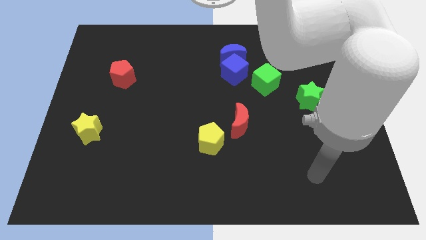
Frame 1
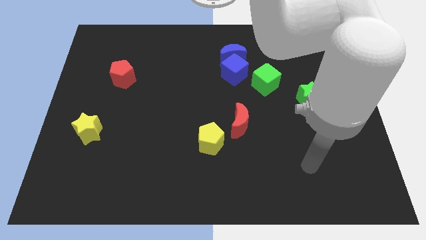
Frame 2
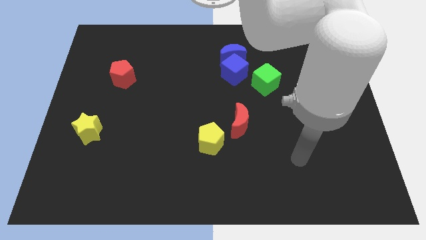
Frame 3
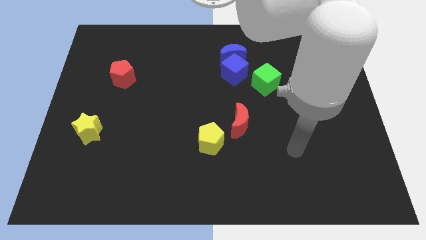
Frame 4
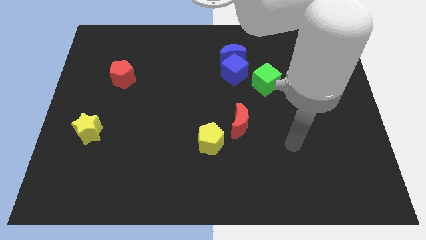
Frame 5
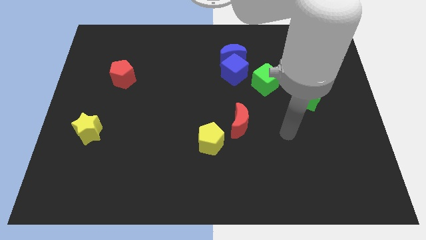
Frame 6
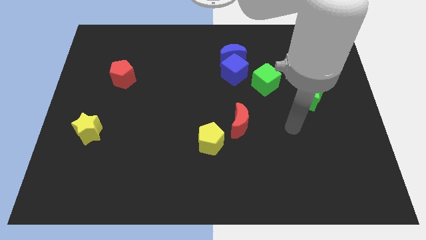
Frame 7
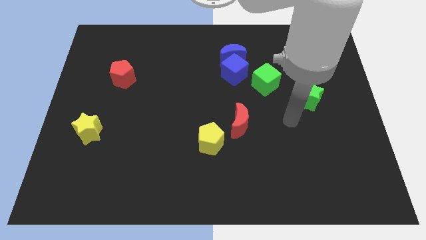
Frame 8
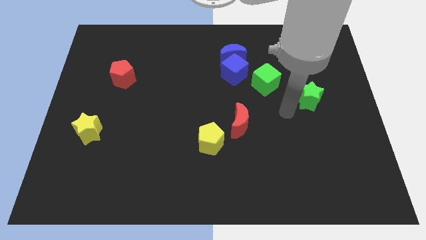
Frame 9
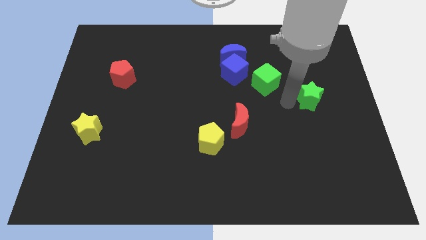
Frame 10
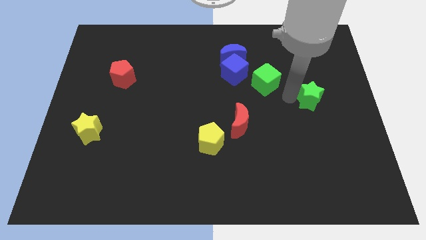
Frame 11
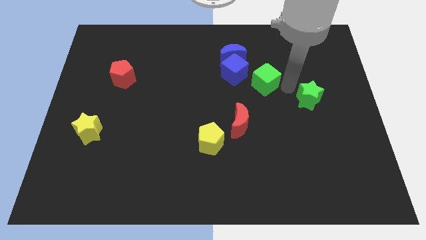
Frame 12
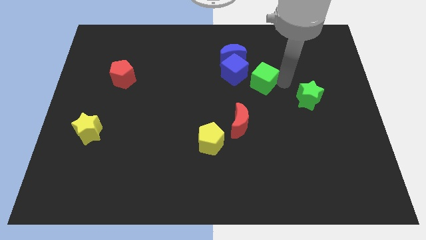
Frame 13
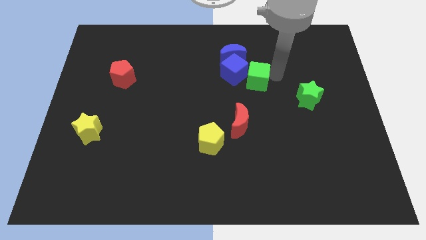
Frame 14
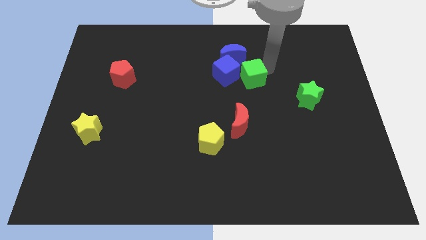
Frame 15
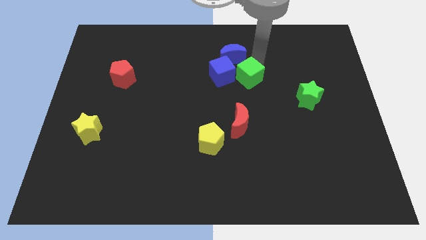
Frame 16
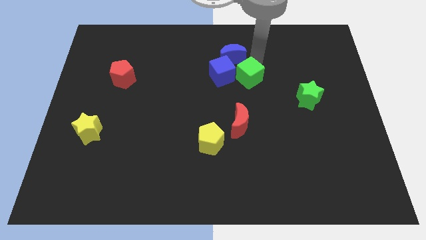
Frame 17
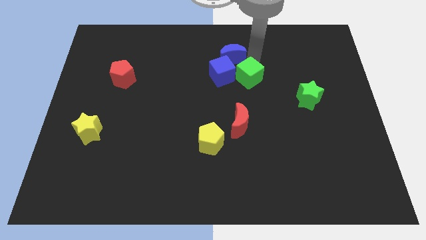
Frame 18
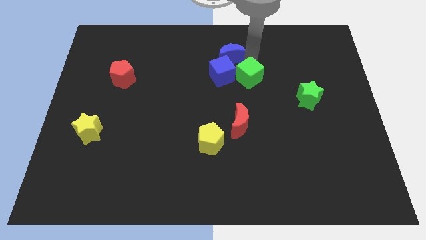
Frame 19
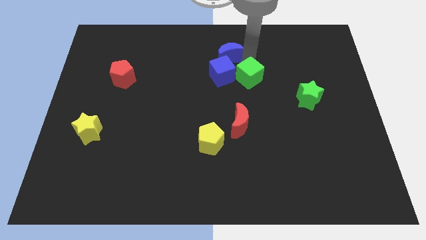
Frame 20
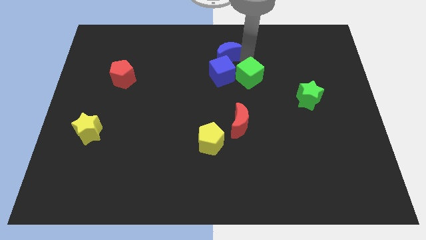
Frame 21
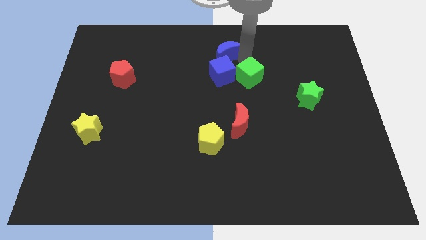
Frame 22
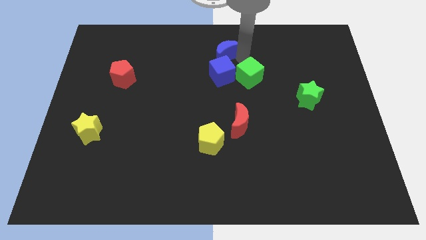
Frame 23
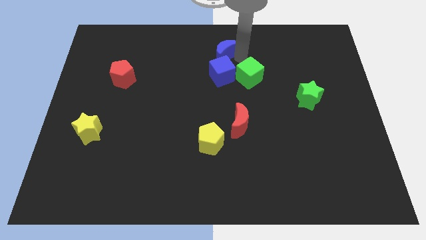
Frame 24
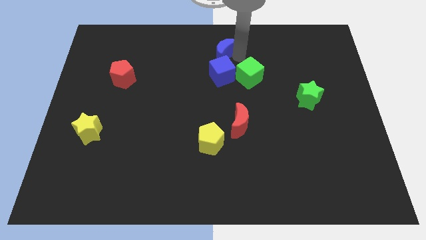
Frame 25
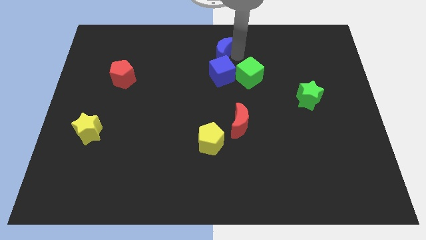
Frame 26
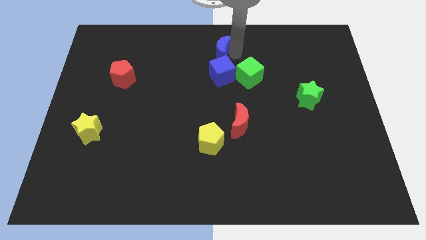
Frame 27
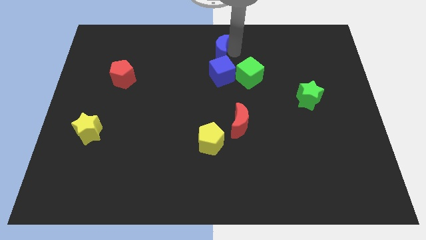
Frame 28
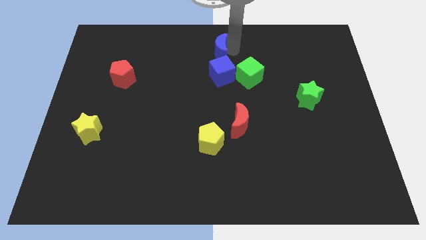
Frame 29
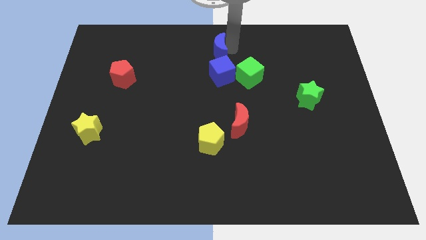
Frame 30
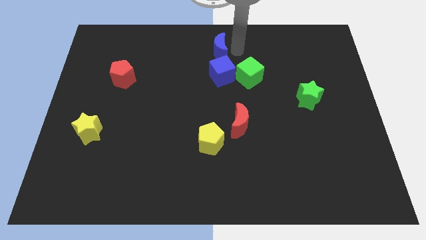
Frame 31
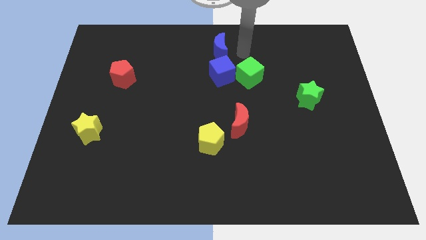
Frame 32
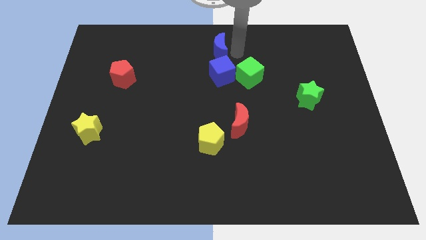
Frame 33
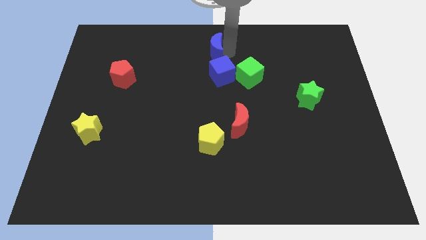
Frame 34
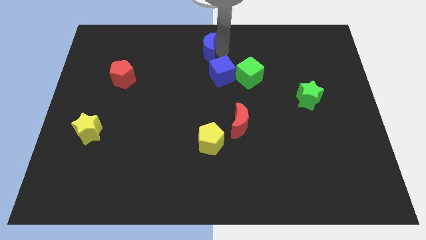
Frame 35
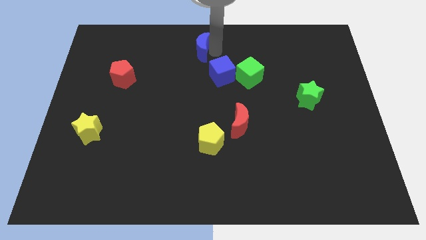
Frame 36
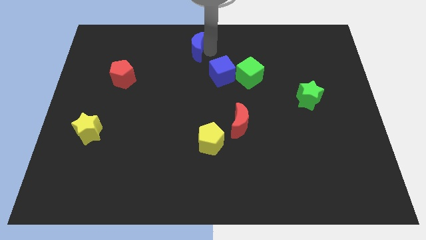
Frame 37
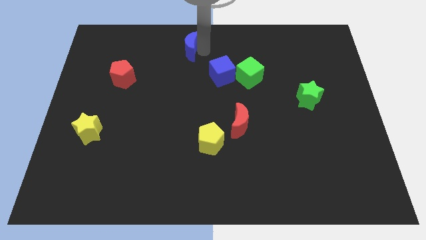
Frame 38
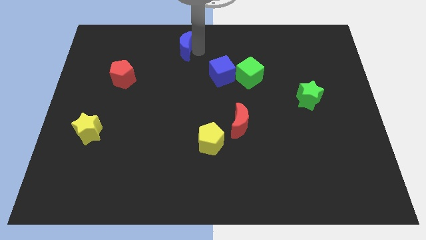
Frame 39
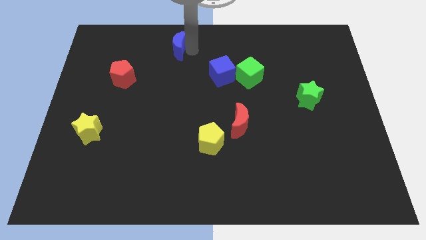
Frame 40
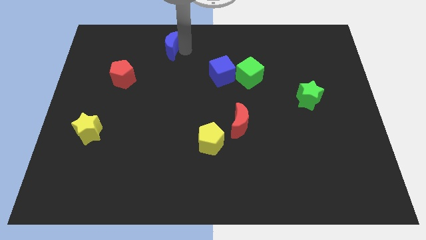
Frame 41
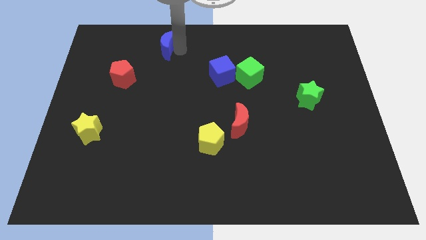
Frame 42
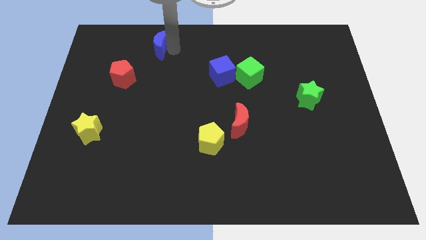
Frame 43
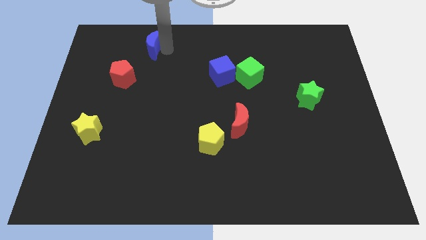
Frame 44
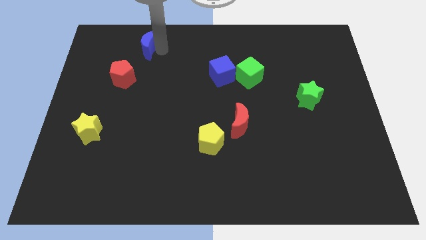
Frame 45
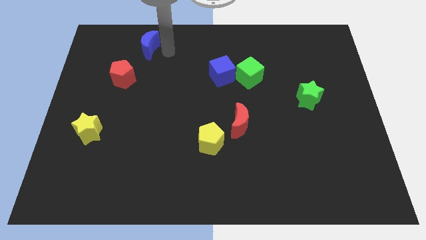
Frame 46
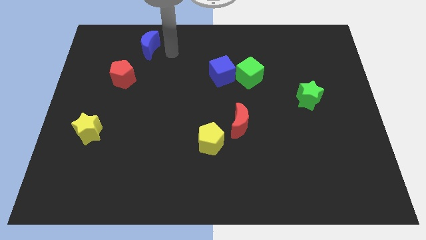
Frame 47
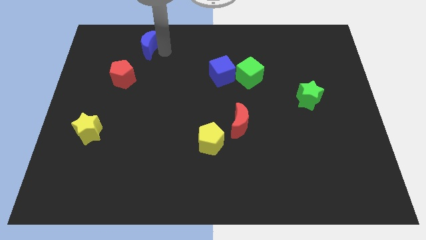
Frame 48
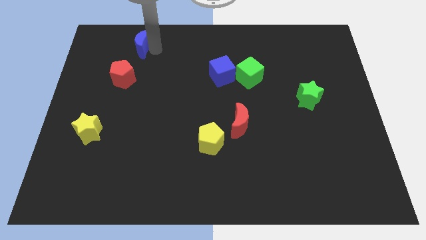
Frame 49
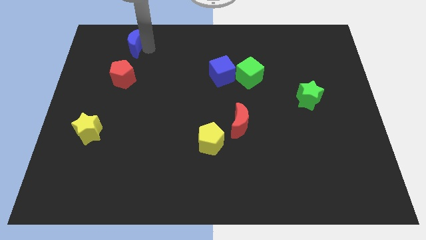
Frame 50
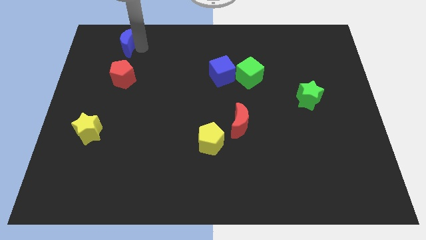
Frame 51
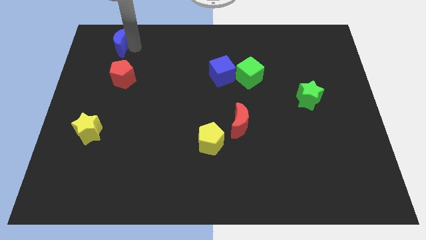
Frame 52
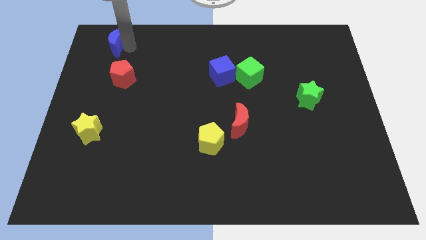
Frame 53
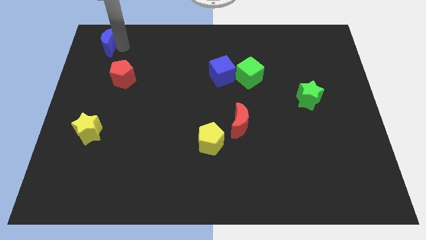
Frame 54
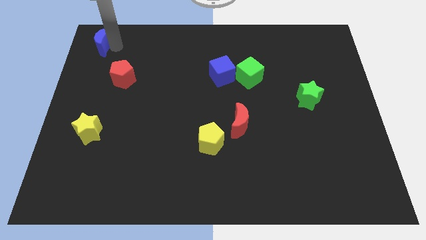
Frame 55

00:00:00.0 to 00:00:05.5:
slide the blue moon to the top left corner

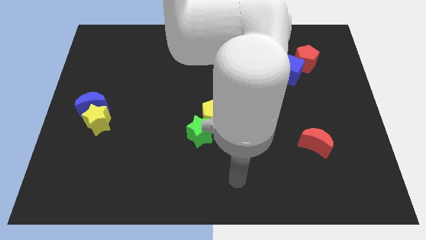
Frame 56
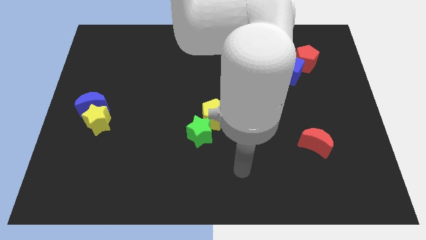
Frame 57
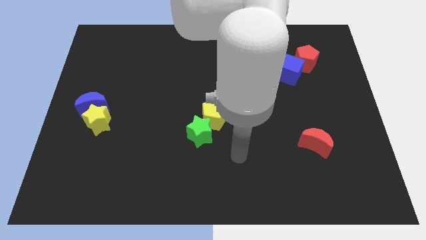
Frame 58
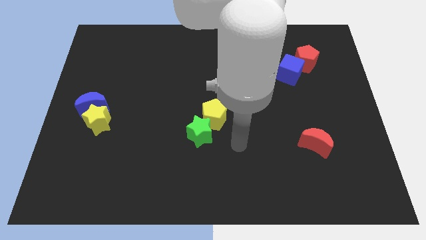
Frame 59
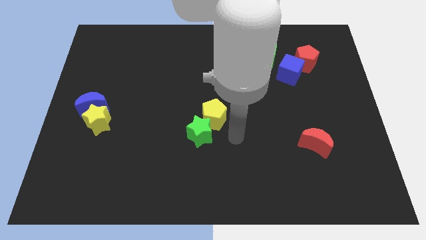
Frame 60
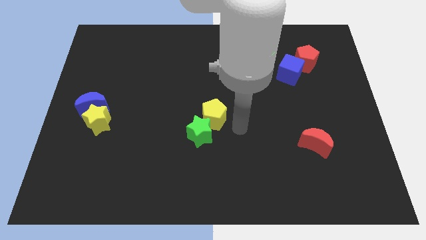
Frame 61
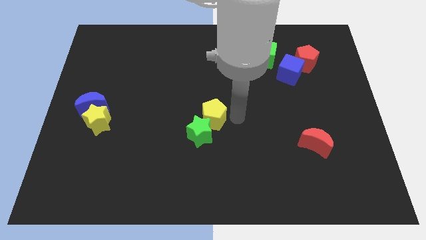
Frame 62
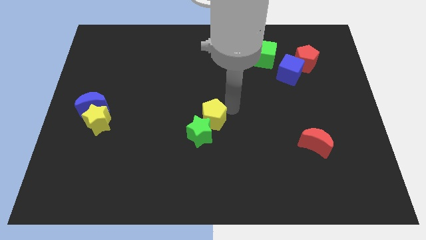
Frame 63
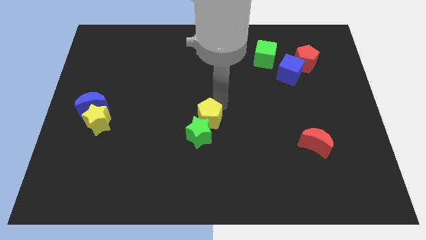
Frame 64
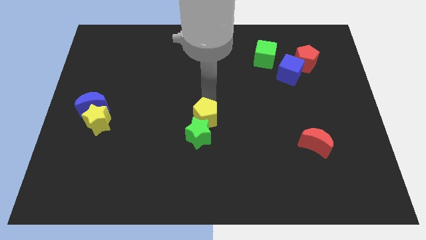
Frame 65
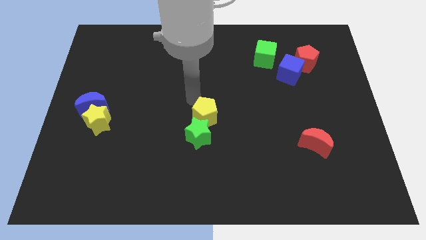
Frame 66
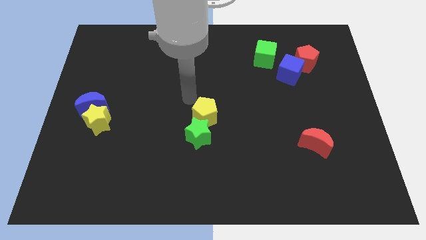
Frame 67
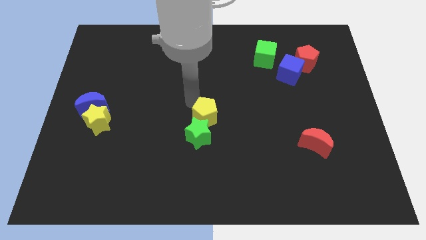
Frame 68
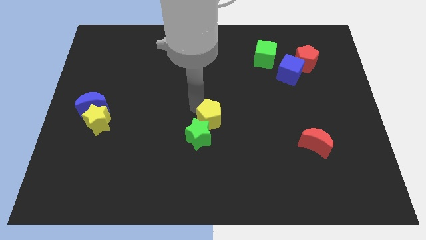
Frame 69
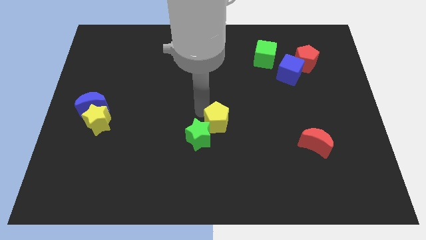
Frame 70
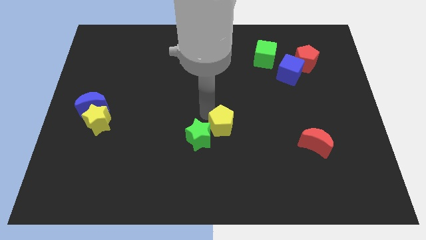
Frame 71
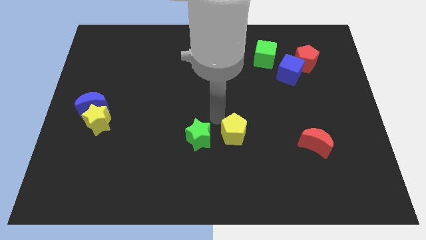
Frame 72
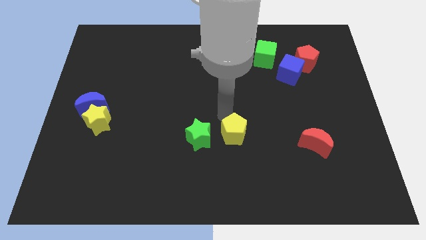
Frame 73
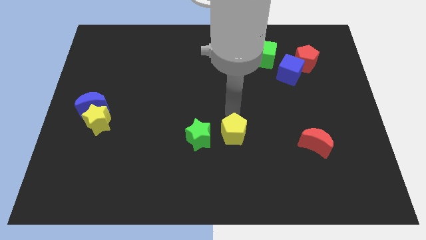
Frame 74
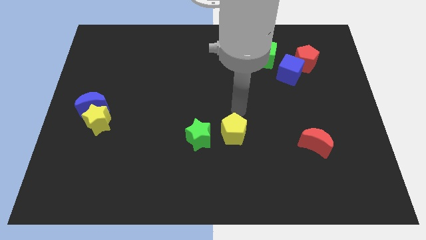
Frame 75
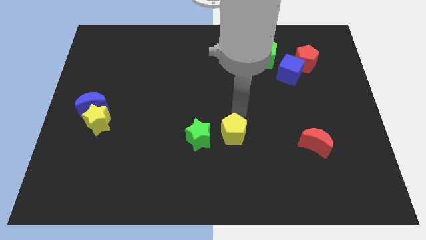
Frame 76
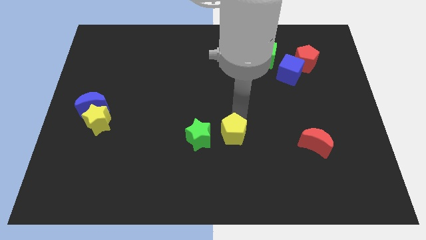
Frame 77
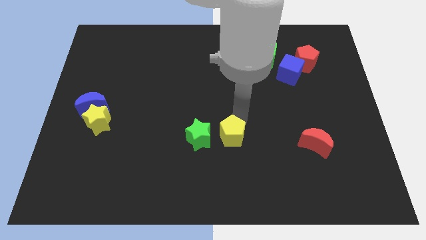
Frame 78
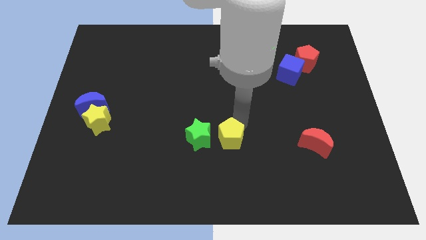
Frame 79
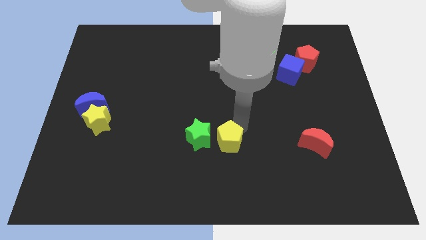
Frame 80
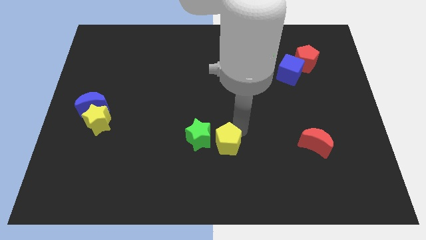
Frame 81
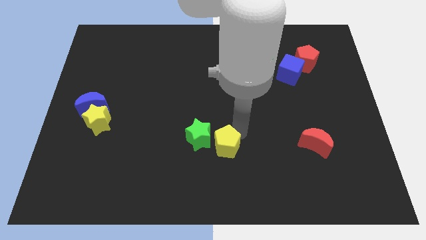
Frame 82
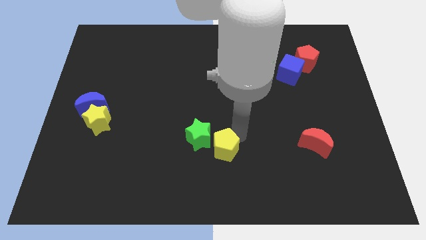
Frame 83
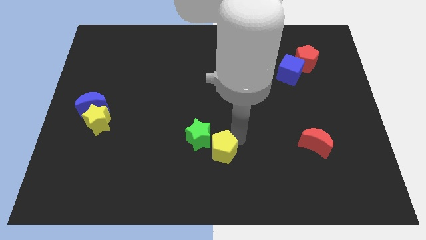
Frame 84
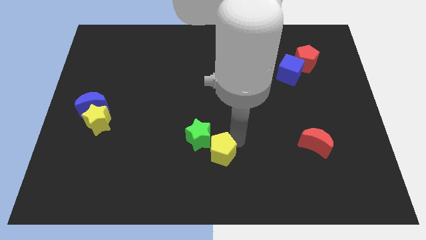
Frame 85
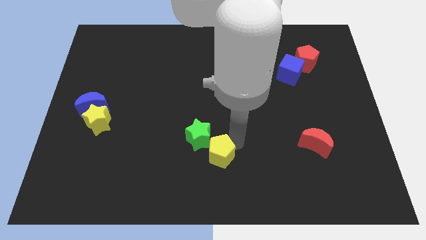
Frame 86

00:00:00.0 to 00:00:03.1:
slide the yellow pentagon to the bottom side
